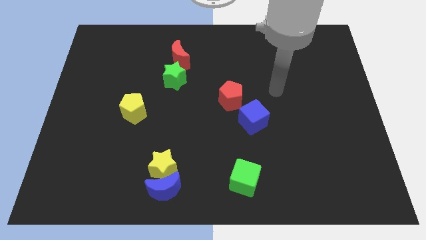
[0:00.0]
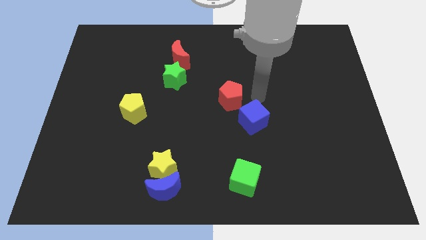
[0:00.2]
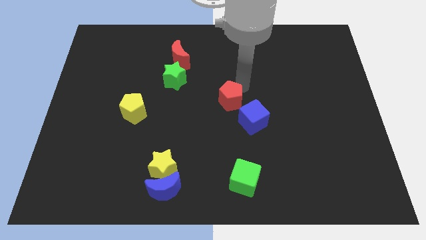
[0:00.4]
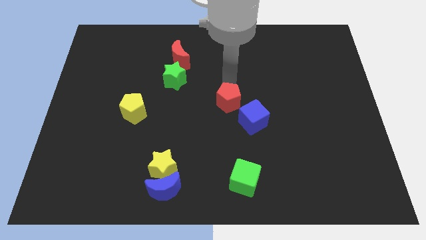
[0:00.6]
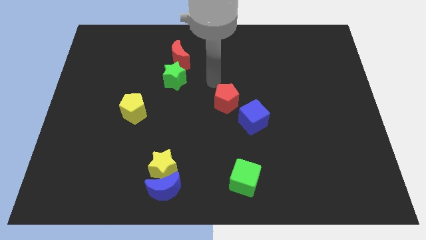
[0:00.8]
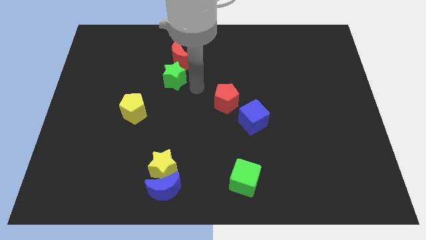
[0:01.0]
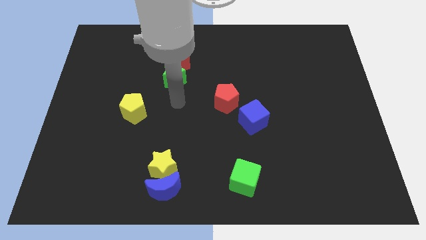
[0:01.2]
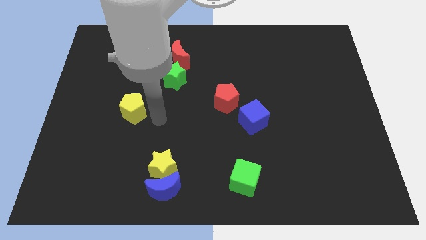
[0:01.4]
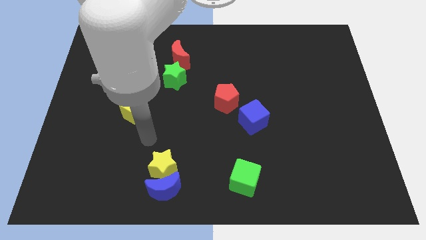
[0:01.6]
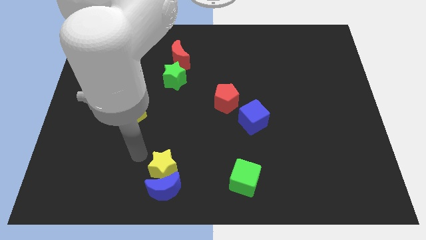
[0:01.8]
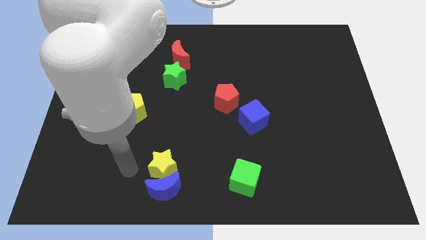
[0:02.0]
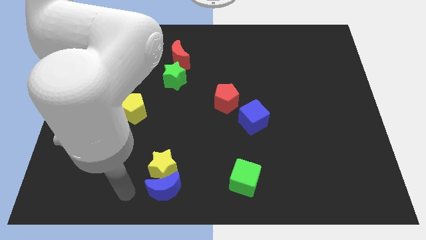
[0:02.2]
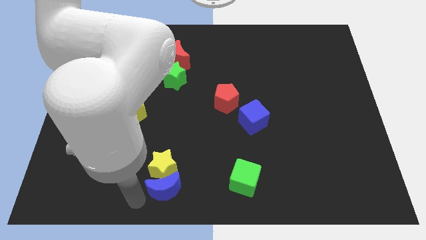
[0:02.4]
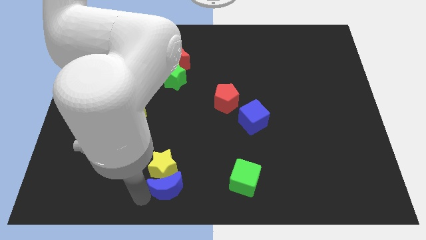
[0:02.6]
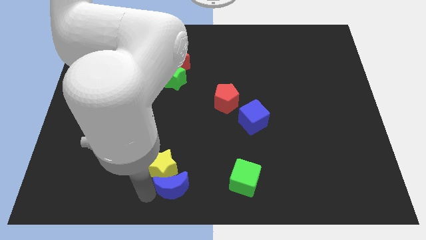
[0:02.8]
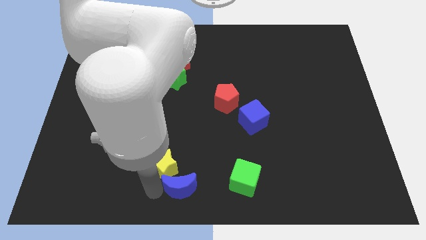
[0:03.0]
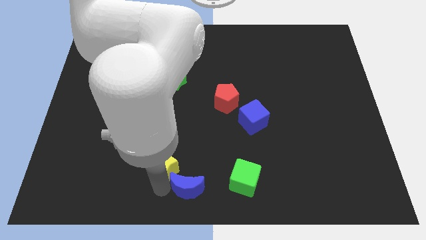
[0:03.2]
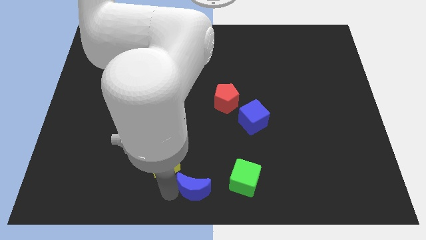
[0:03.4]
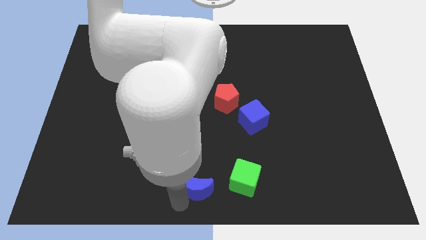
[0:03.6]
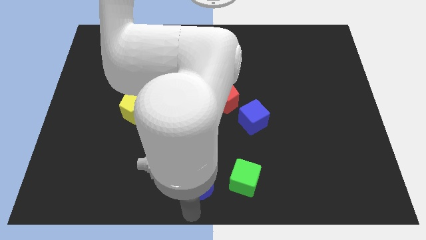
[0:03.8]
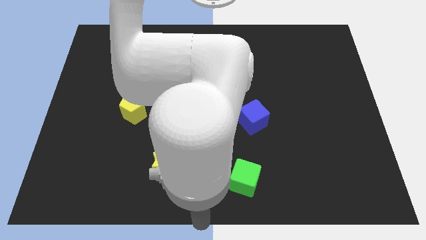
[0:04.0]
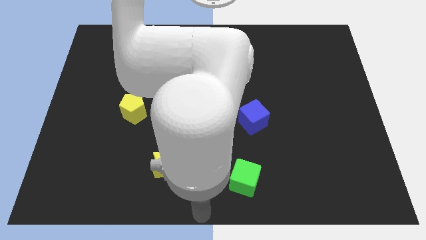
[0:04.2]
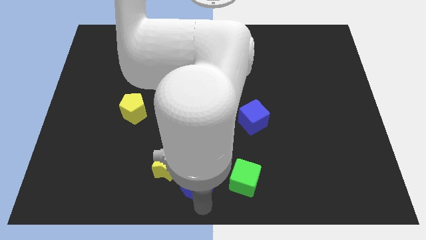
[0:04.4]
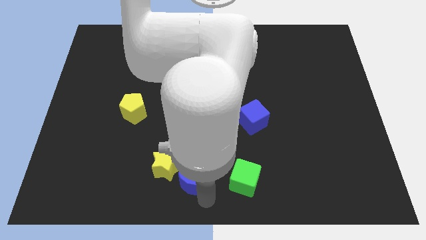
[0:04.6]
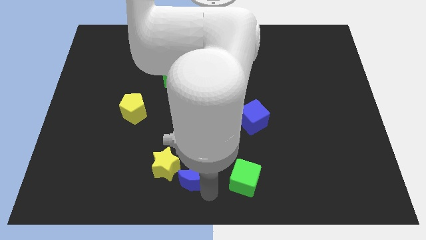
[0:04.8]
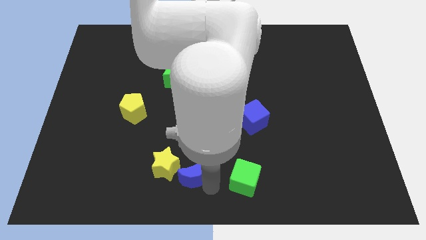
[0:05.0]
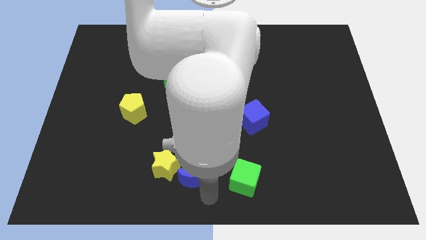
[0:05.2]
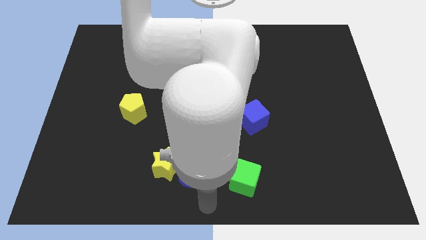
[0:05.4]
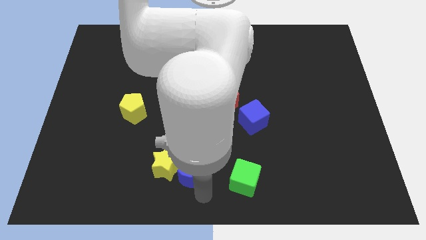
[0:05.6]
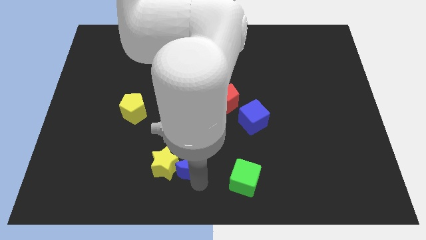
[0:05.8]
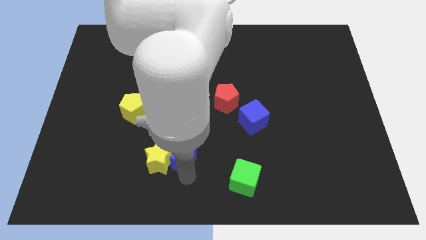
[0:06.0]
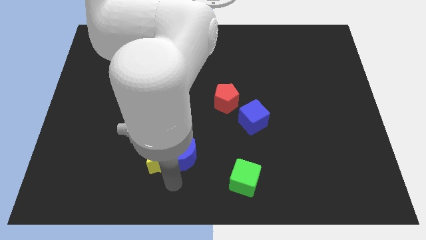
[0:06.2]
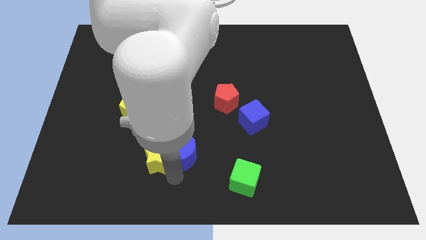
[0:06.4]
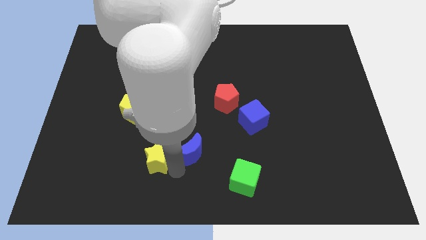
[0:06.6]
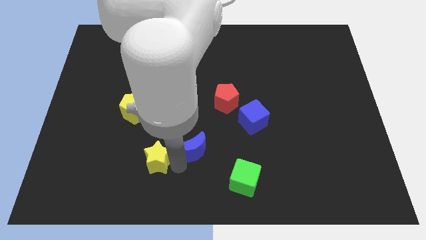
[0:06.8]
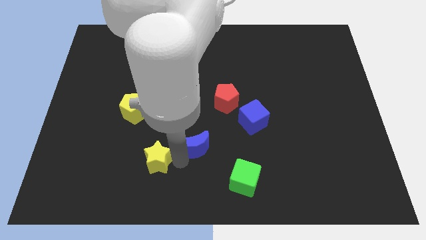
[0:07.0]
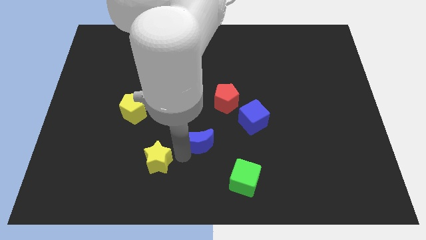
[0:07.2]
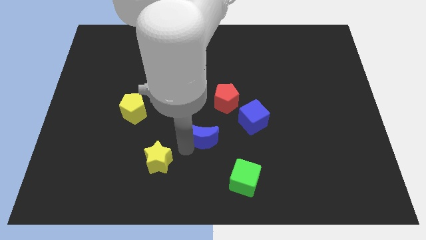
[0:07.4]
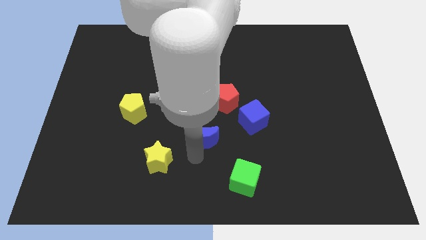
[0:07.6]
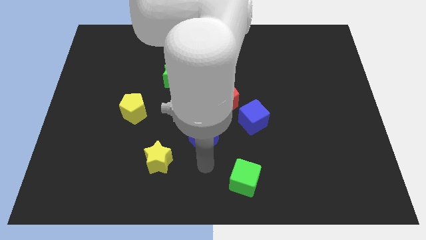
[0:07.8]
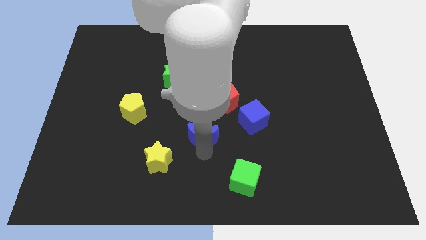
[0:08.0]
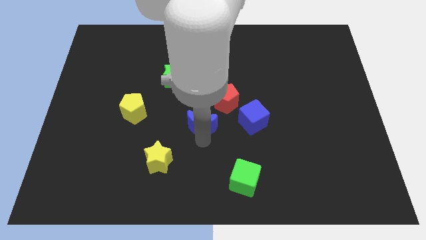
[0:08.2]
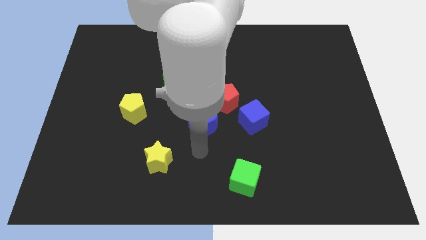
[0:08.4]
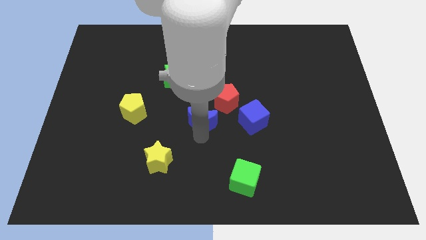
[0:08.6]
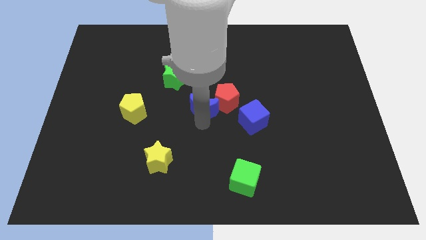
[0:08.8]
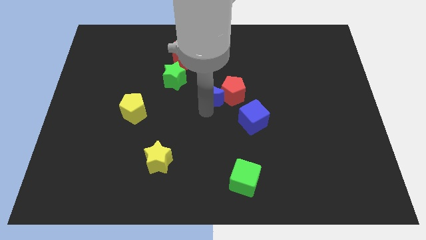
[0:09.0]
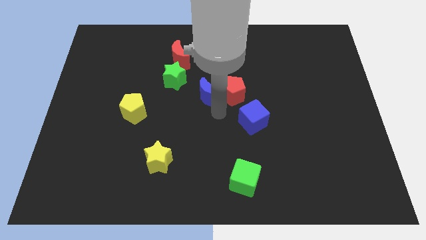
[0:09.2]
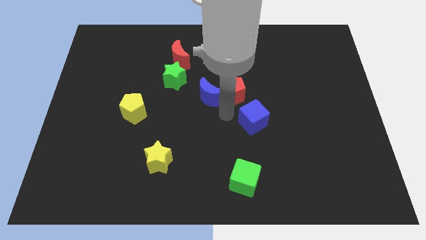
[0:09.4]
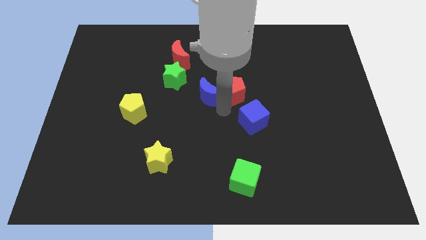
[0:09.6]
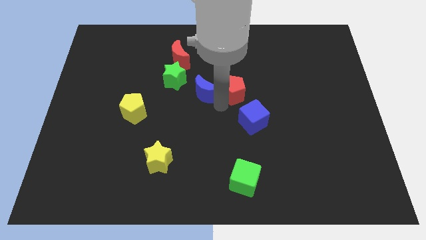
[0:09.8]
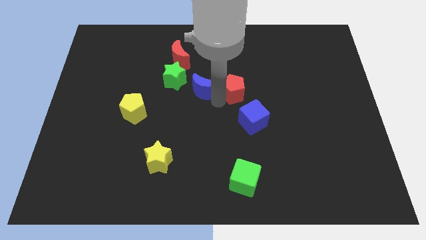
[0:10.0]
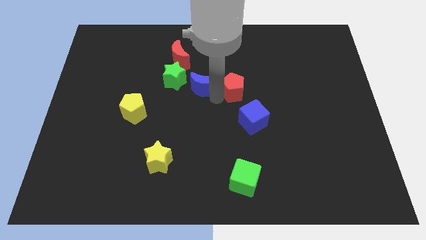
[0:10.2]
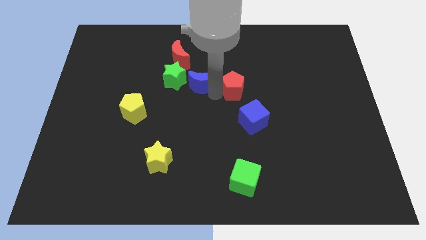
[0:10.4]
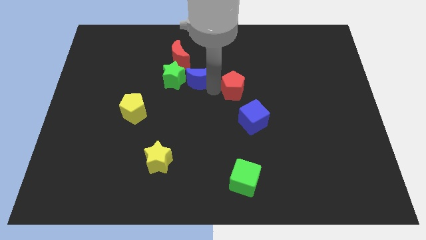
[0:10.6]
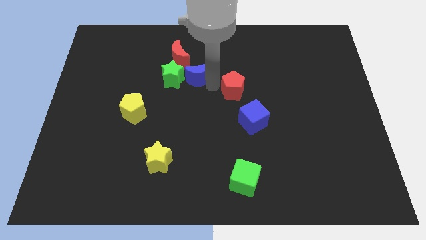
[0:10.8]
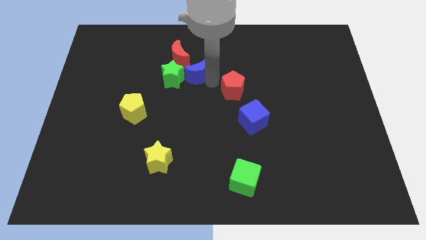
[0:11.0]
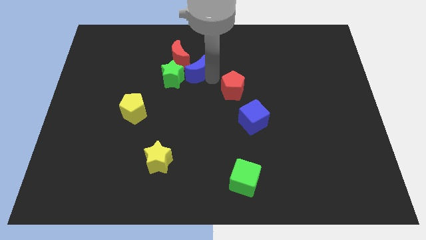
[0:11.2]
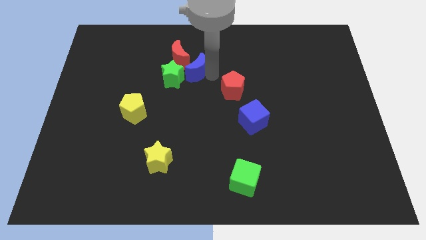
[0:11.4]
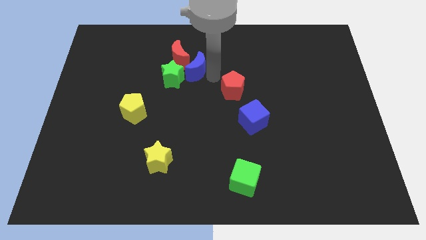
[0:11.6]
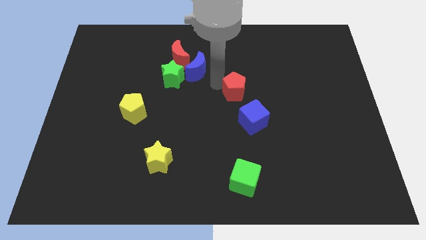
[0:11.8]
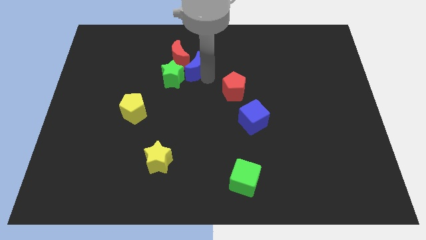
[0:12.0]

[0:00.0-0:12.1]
put the blue moon to the red moon

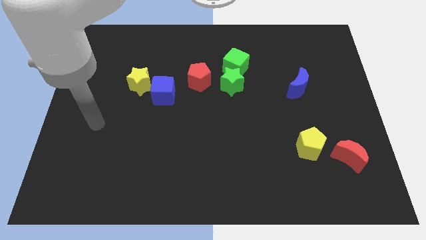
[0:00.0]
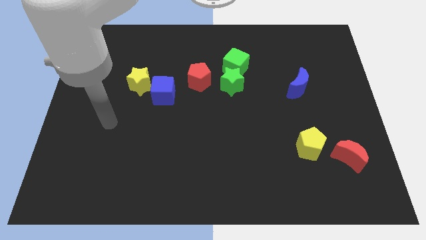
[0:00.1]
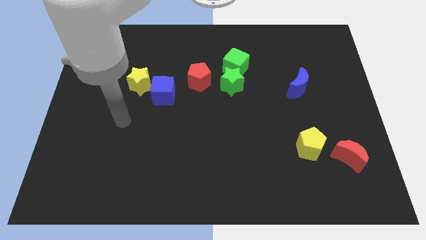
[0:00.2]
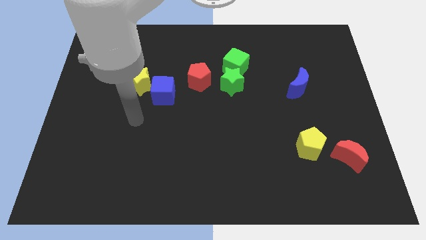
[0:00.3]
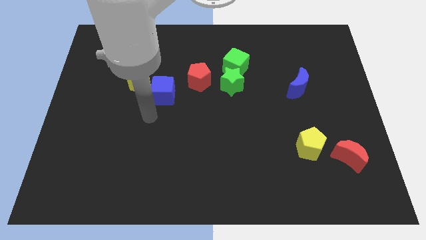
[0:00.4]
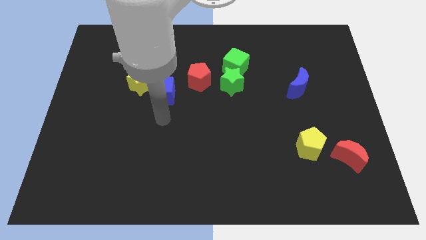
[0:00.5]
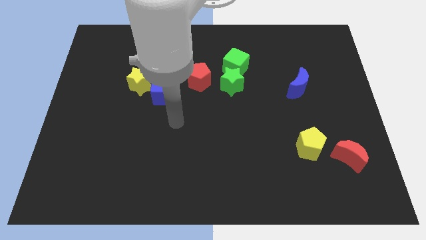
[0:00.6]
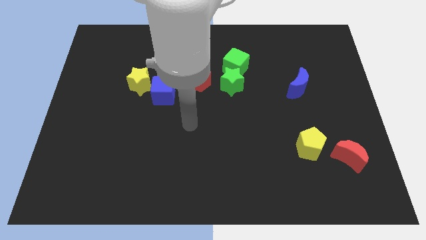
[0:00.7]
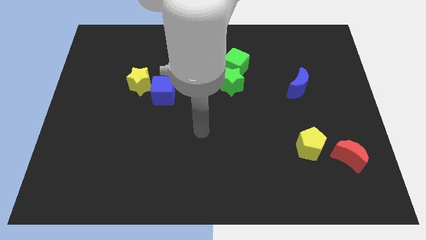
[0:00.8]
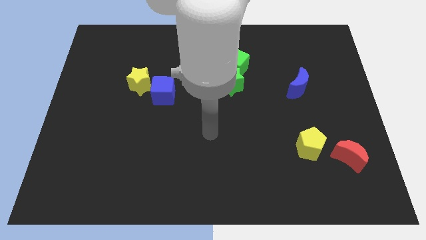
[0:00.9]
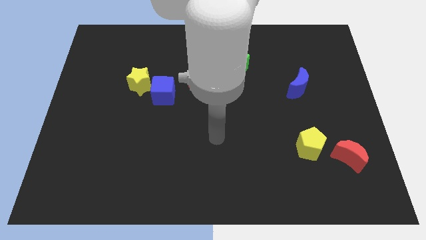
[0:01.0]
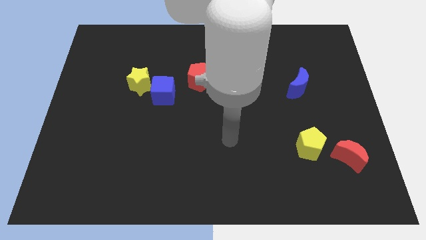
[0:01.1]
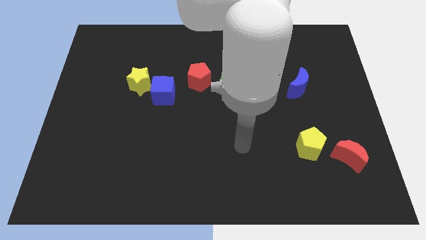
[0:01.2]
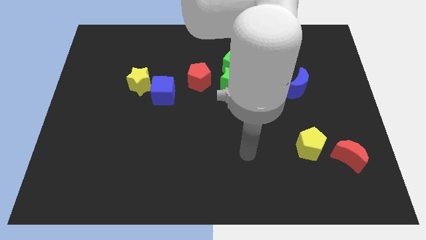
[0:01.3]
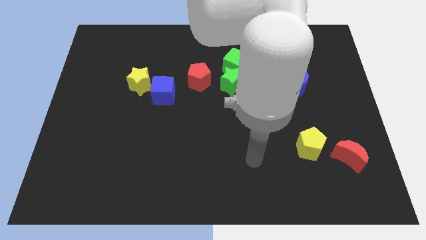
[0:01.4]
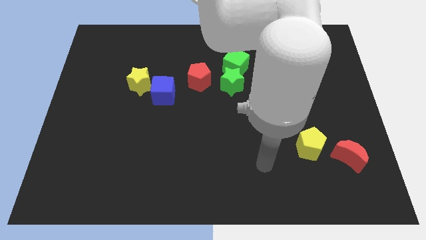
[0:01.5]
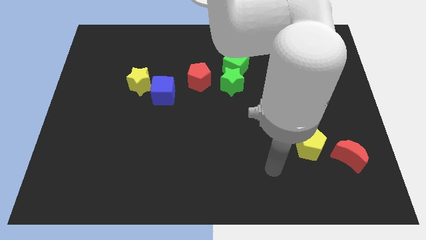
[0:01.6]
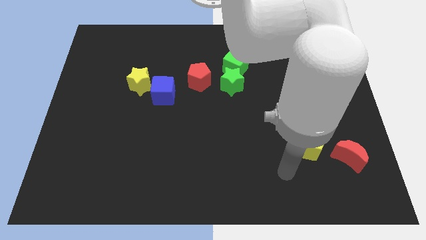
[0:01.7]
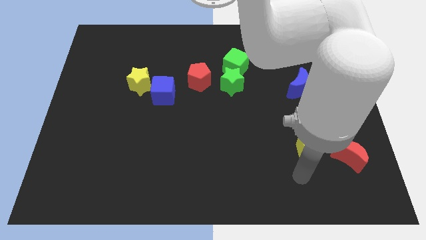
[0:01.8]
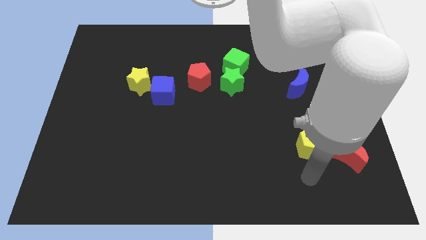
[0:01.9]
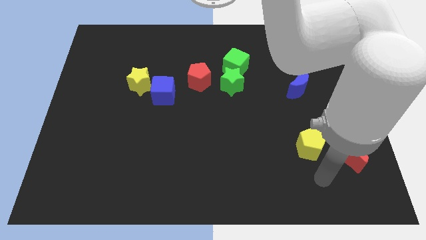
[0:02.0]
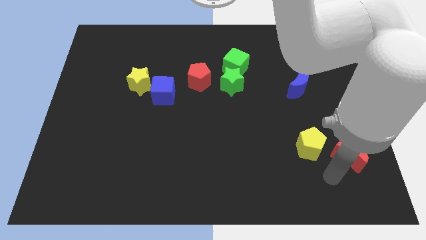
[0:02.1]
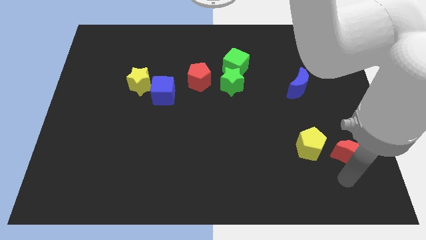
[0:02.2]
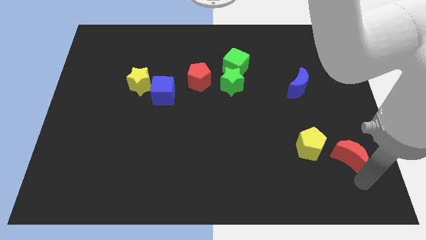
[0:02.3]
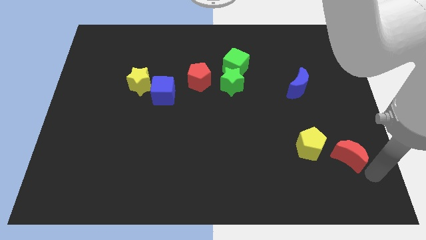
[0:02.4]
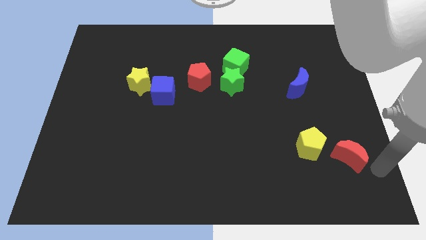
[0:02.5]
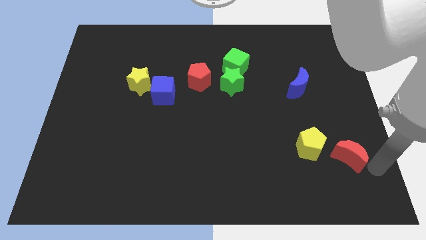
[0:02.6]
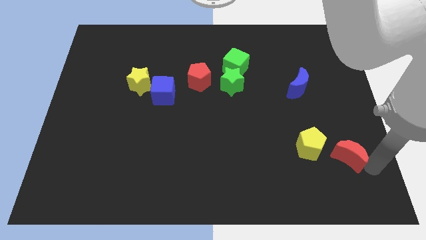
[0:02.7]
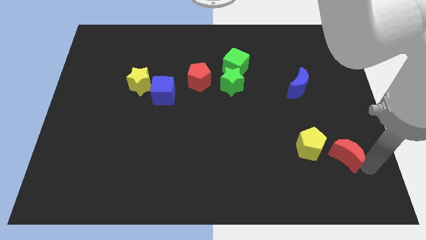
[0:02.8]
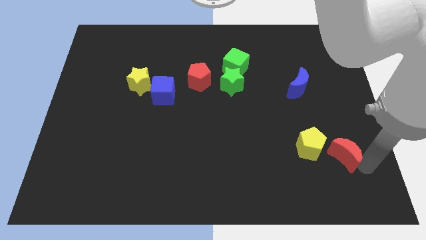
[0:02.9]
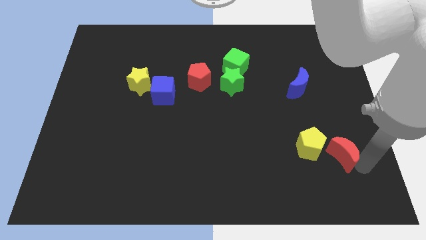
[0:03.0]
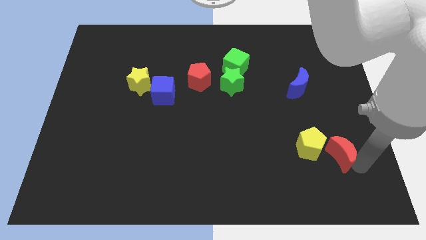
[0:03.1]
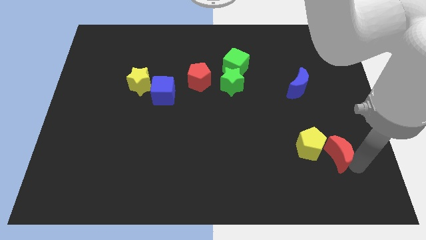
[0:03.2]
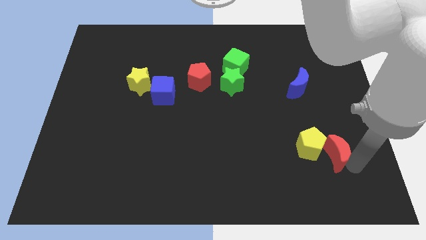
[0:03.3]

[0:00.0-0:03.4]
move the red moon close to the yellow pentagon
